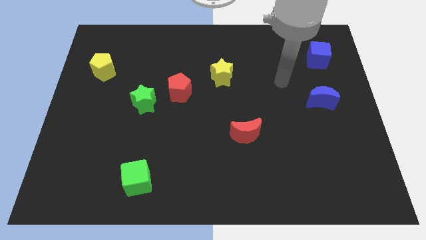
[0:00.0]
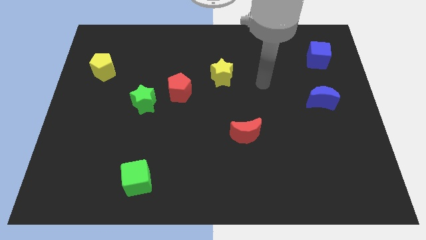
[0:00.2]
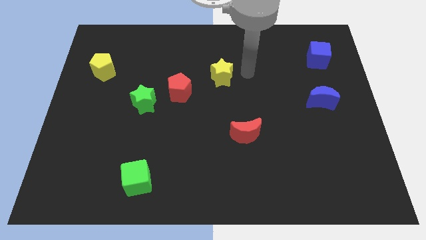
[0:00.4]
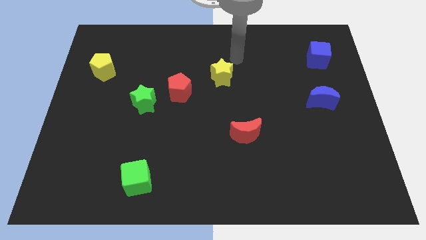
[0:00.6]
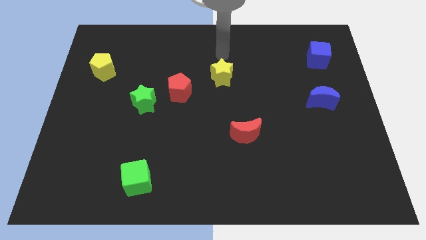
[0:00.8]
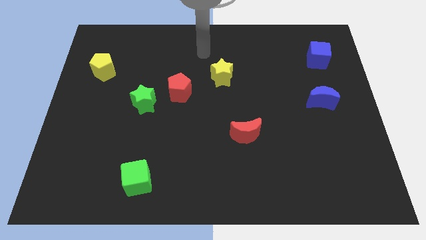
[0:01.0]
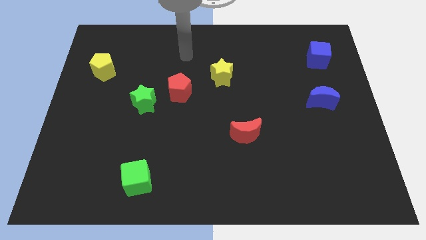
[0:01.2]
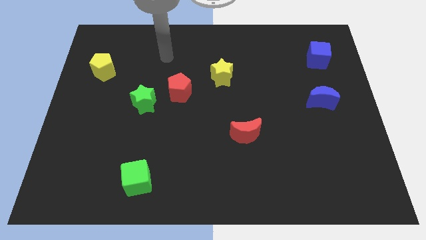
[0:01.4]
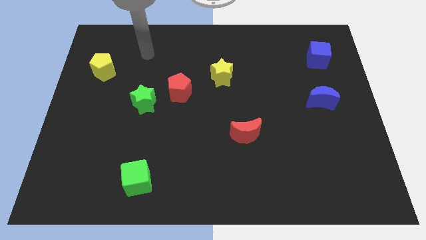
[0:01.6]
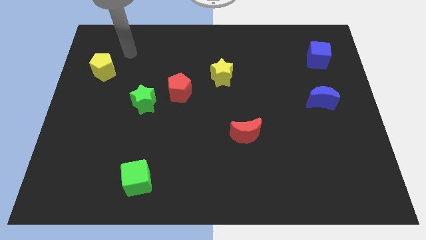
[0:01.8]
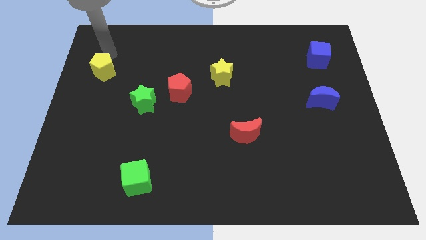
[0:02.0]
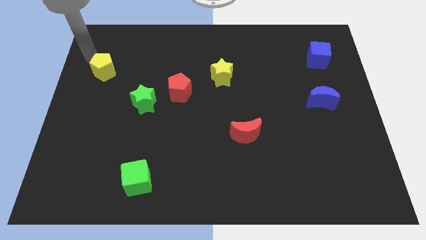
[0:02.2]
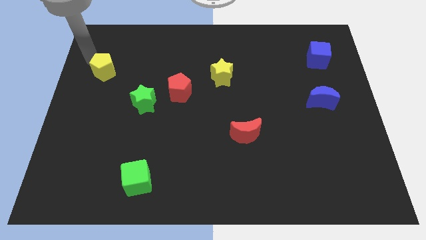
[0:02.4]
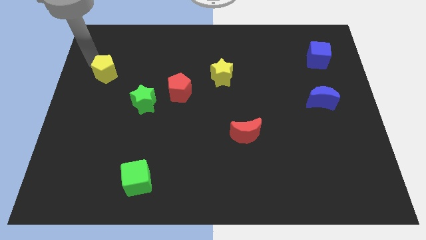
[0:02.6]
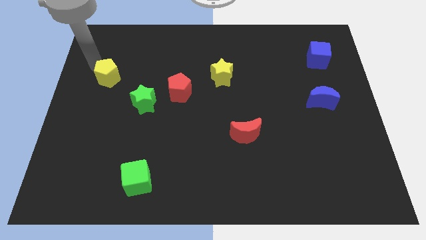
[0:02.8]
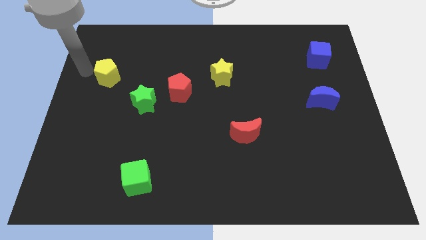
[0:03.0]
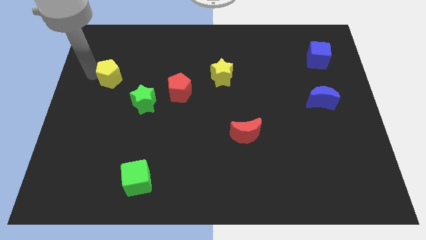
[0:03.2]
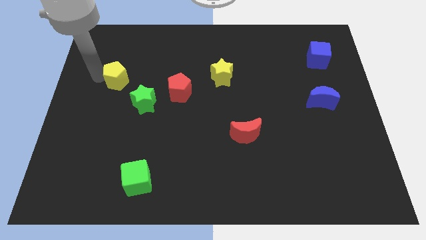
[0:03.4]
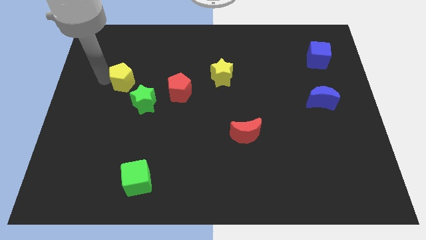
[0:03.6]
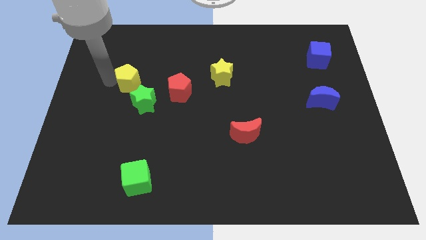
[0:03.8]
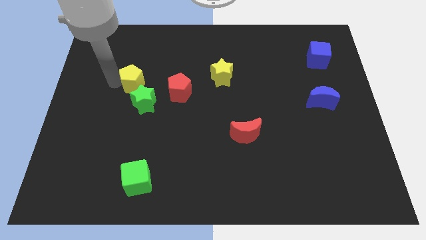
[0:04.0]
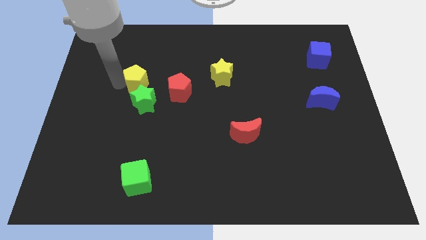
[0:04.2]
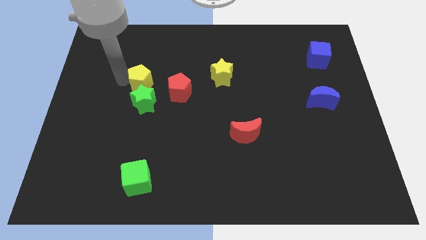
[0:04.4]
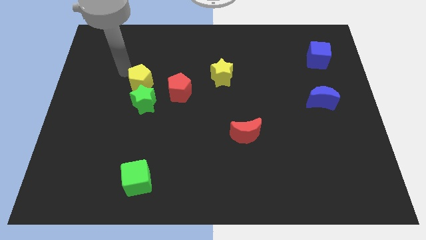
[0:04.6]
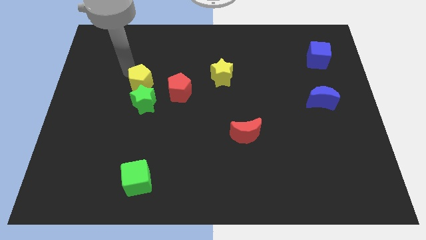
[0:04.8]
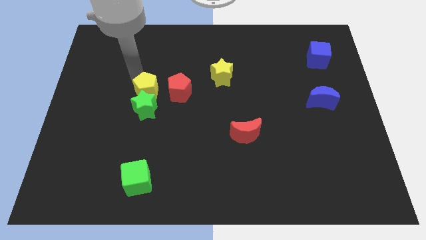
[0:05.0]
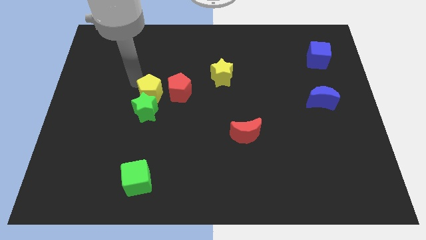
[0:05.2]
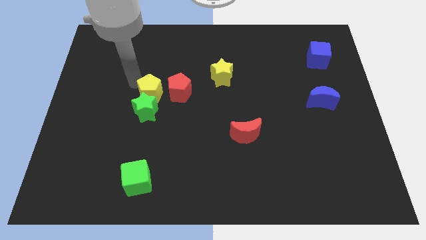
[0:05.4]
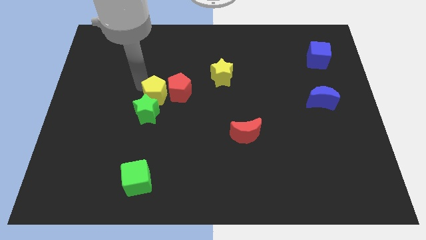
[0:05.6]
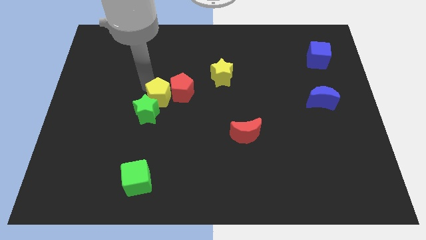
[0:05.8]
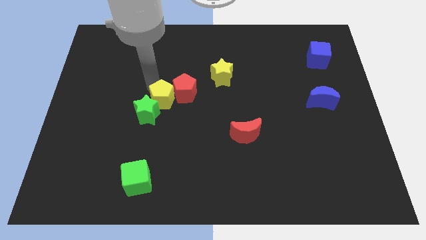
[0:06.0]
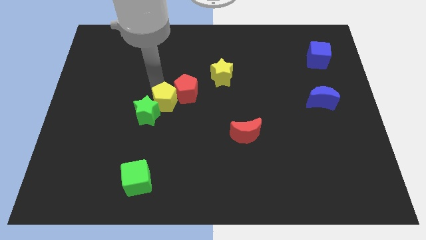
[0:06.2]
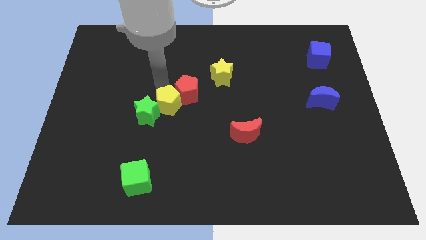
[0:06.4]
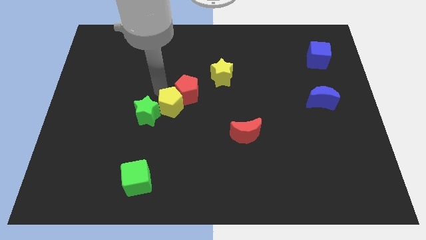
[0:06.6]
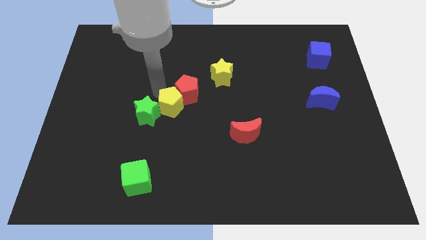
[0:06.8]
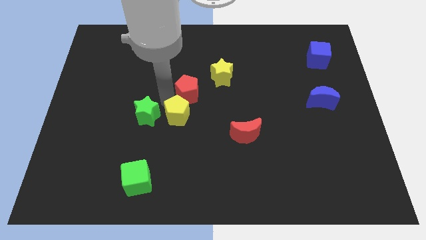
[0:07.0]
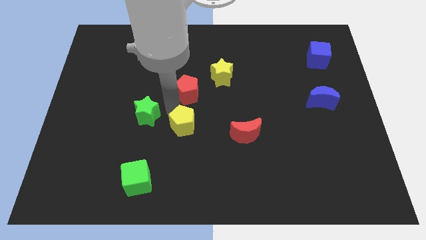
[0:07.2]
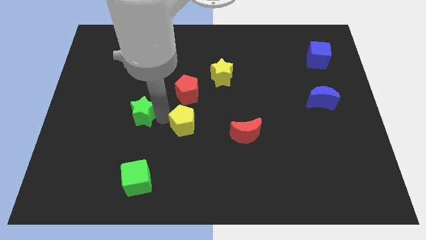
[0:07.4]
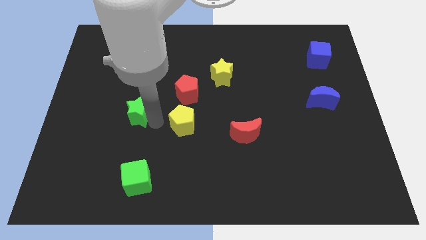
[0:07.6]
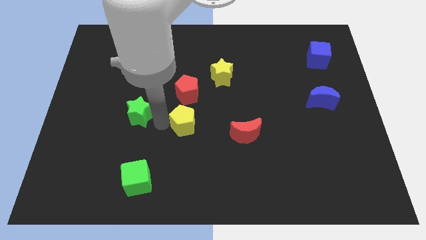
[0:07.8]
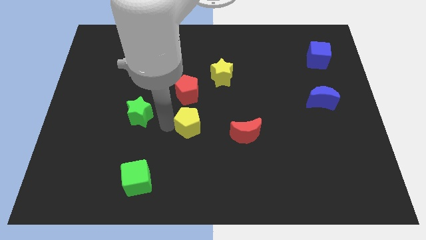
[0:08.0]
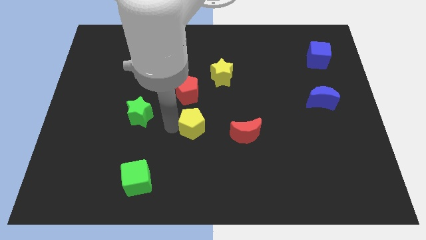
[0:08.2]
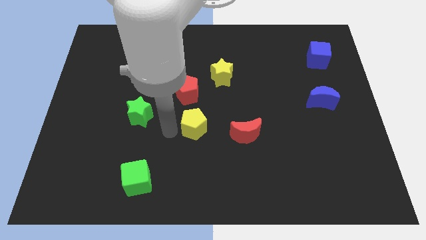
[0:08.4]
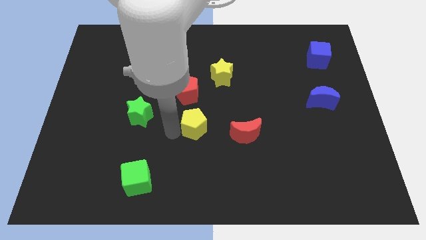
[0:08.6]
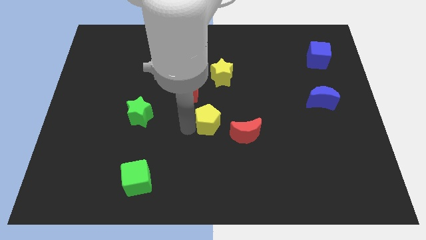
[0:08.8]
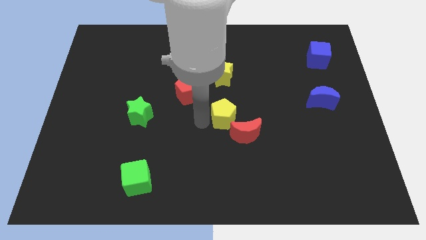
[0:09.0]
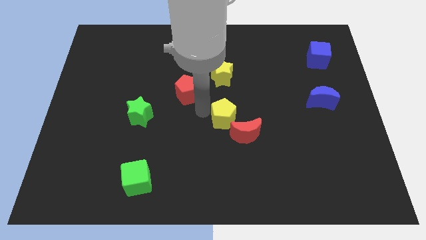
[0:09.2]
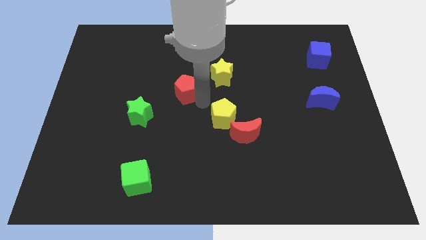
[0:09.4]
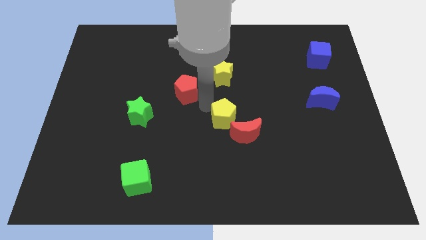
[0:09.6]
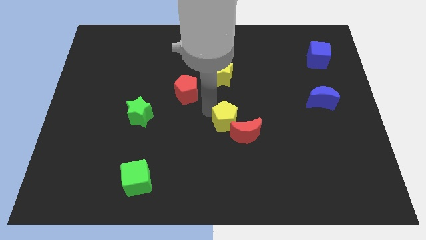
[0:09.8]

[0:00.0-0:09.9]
slide the yellow pentagon to the red moon

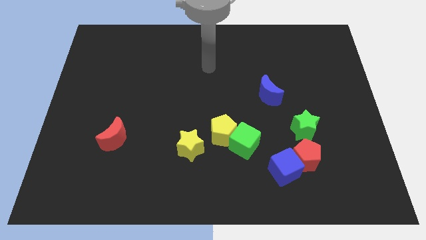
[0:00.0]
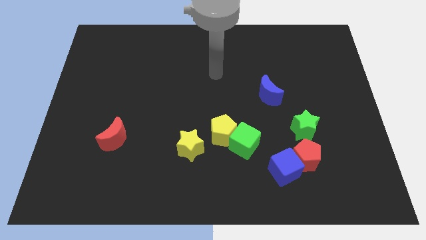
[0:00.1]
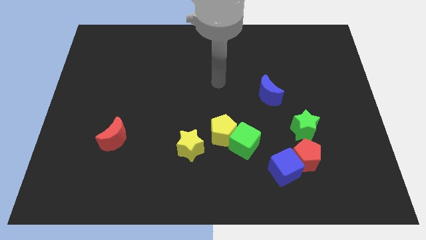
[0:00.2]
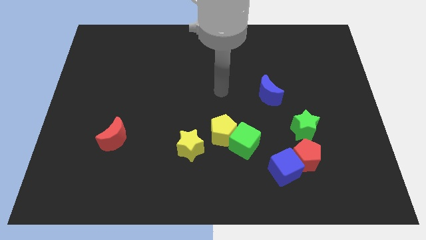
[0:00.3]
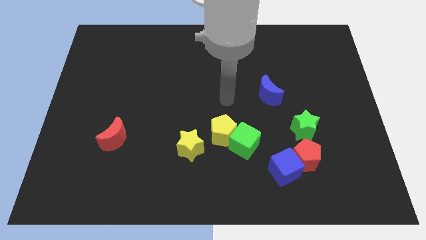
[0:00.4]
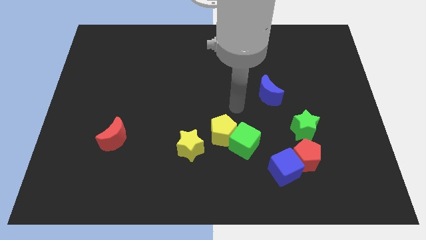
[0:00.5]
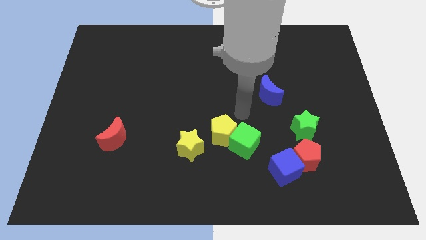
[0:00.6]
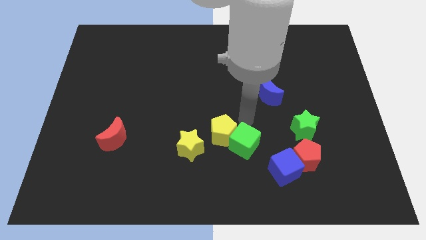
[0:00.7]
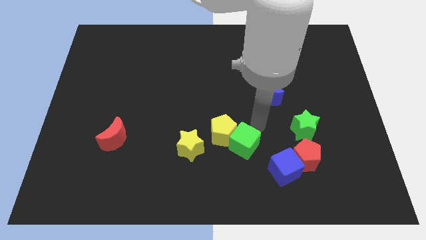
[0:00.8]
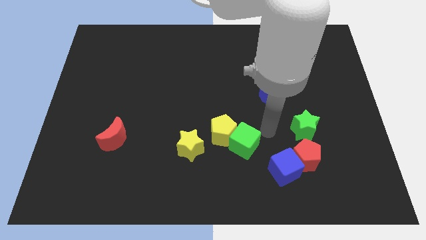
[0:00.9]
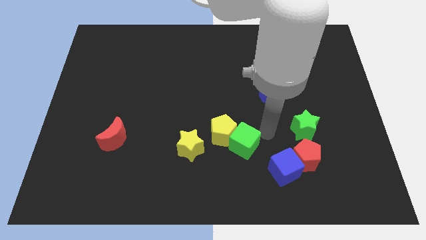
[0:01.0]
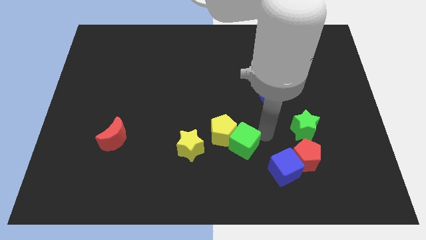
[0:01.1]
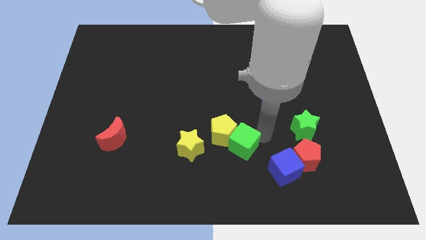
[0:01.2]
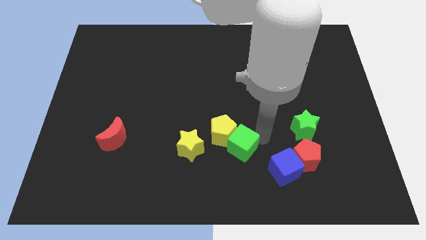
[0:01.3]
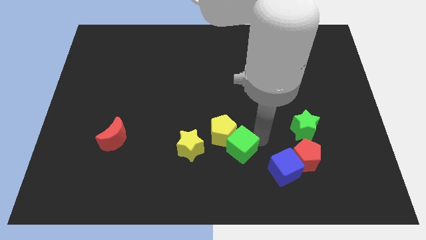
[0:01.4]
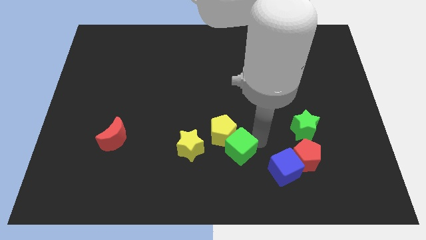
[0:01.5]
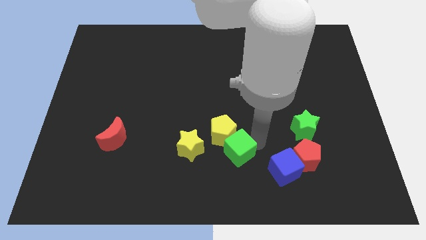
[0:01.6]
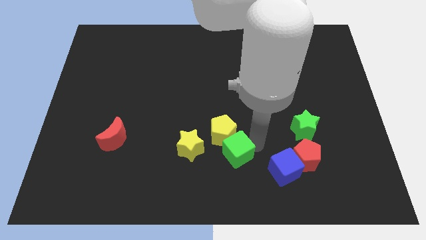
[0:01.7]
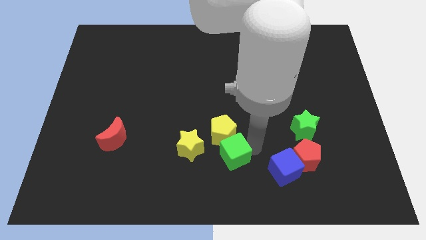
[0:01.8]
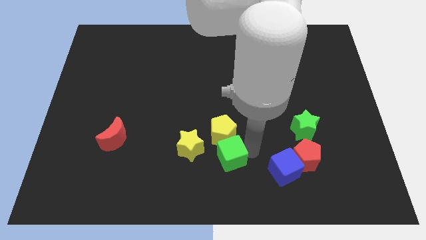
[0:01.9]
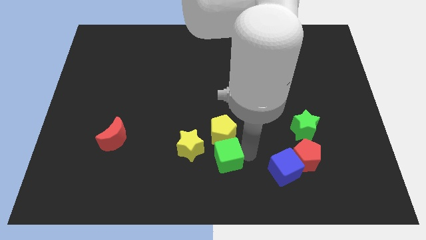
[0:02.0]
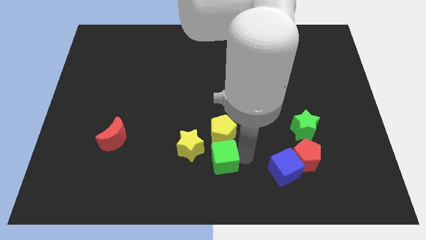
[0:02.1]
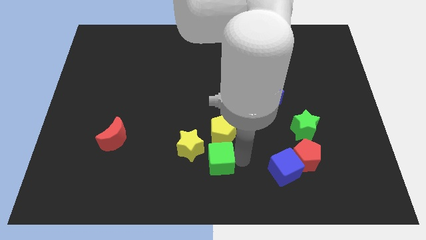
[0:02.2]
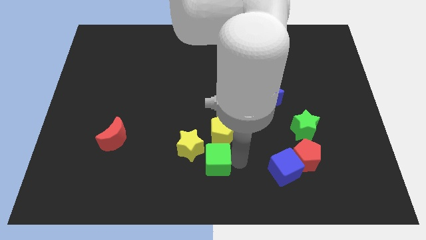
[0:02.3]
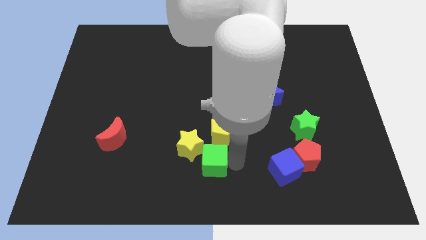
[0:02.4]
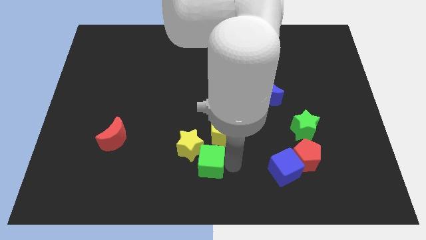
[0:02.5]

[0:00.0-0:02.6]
move the green cube towards the yellow star
